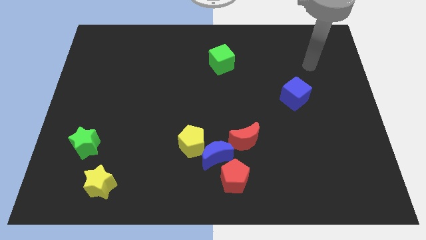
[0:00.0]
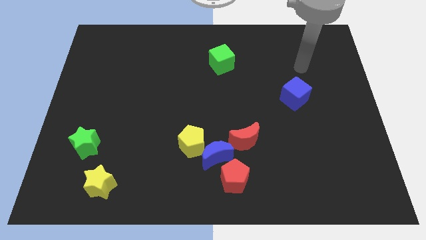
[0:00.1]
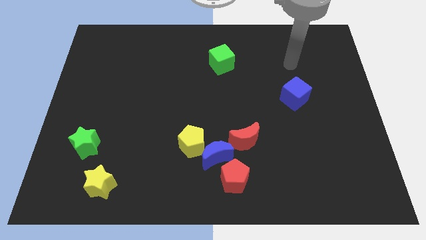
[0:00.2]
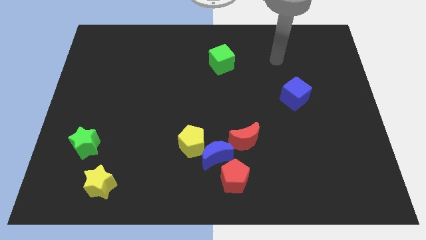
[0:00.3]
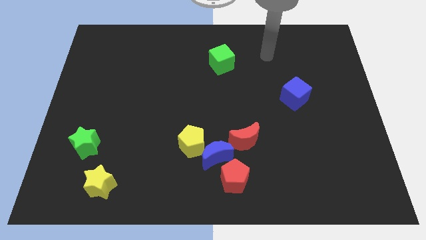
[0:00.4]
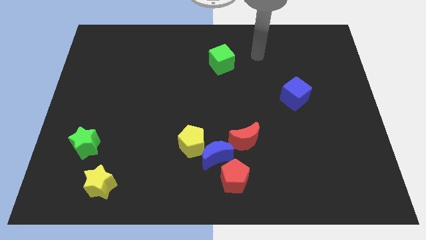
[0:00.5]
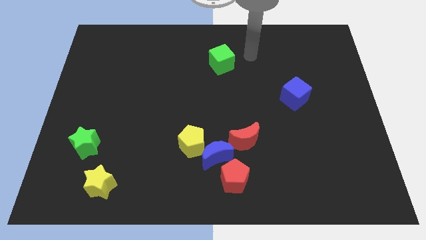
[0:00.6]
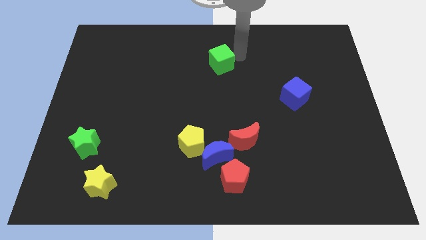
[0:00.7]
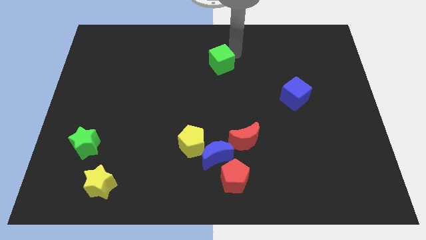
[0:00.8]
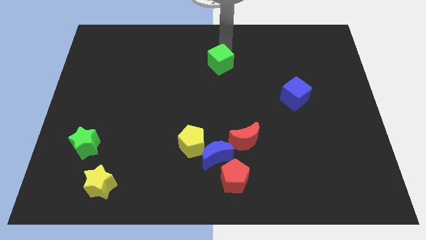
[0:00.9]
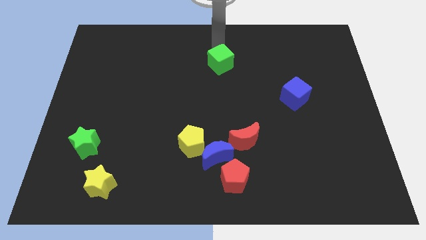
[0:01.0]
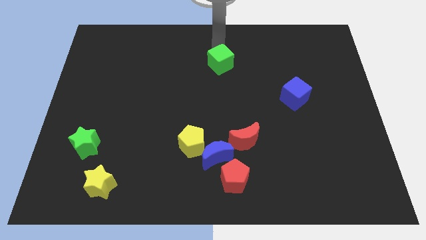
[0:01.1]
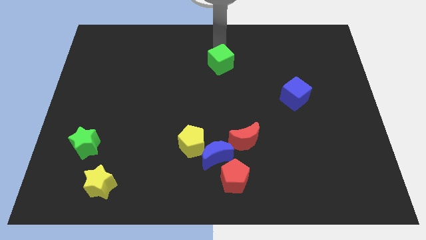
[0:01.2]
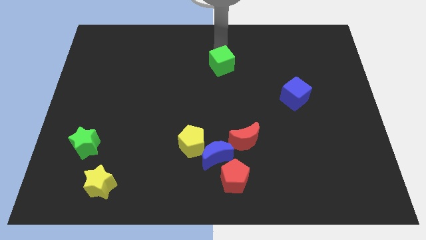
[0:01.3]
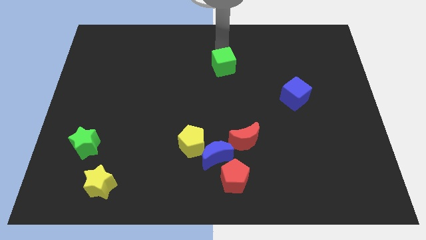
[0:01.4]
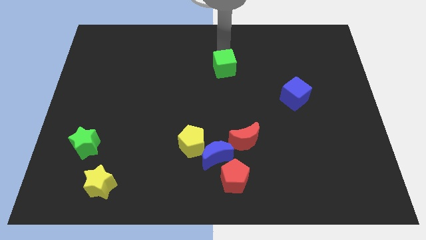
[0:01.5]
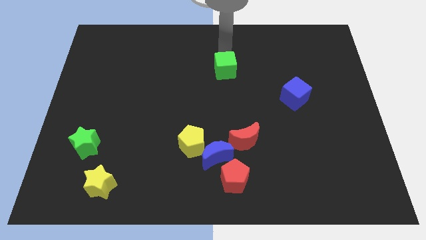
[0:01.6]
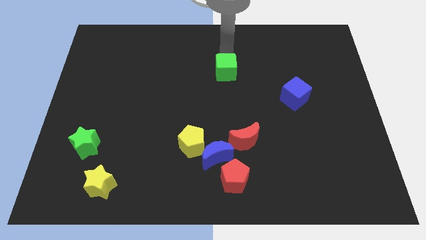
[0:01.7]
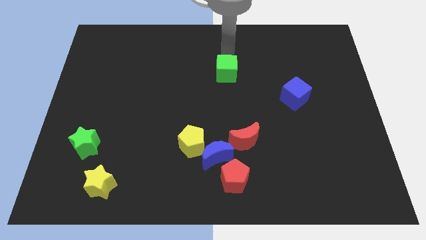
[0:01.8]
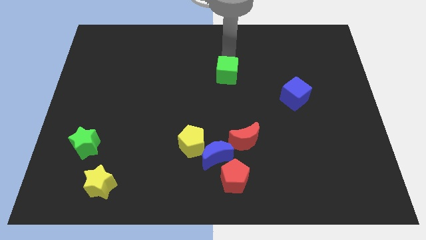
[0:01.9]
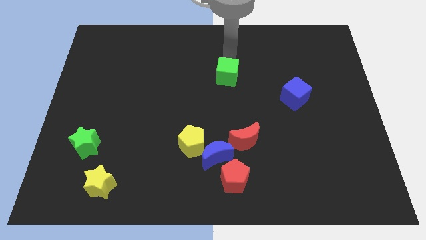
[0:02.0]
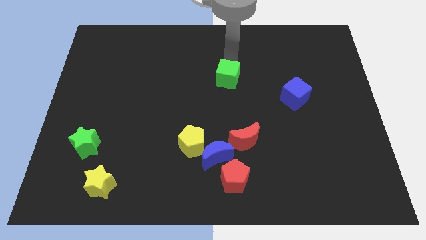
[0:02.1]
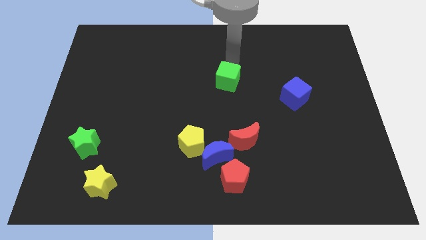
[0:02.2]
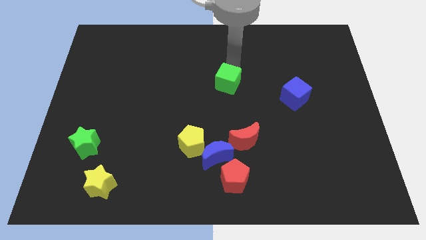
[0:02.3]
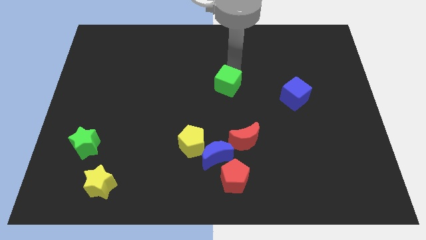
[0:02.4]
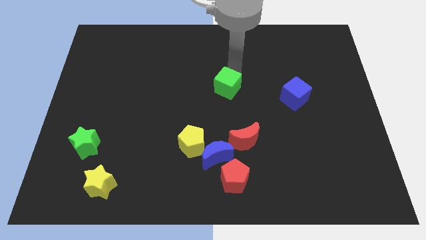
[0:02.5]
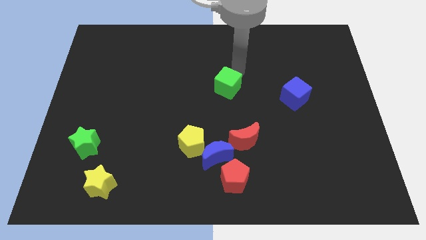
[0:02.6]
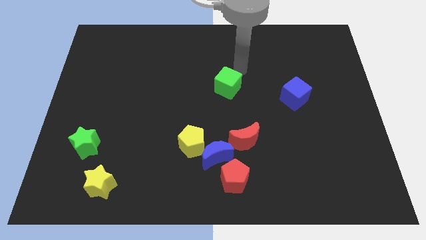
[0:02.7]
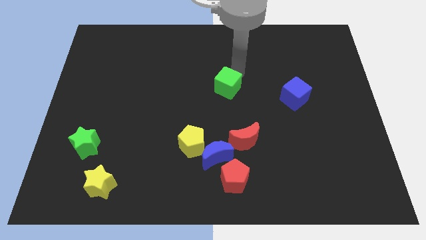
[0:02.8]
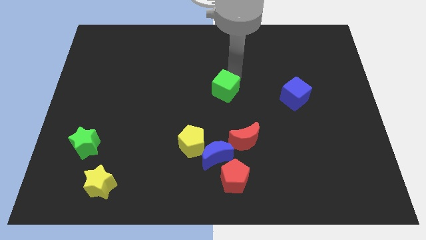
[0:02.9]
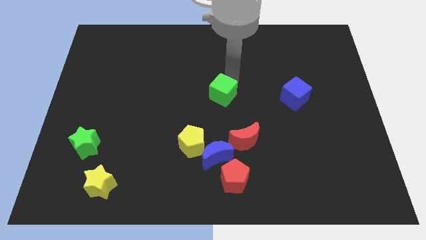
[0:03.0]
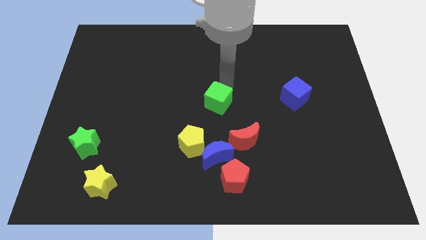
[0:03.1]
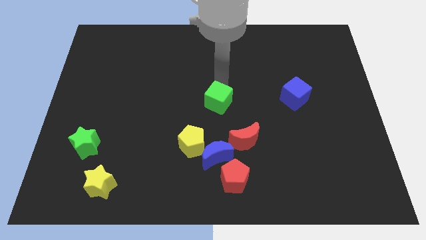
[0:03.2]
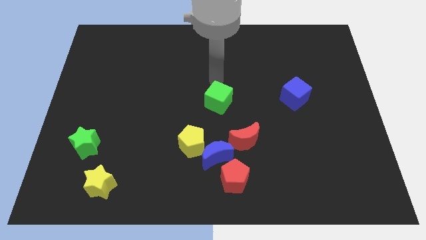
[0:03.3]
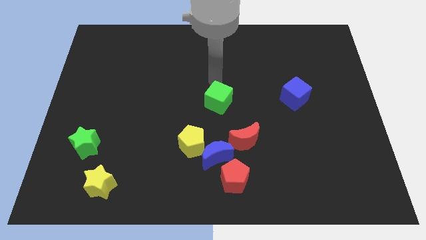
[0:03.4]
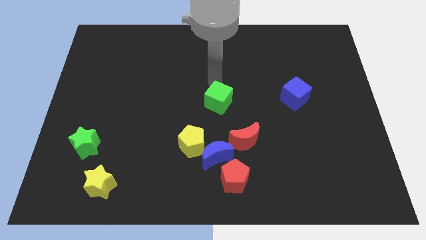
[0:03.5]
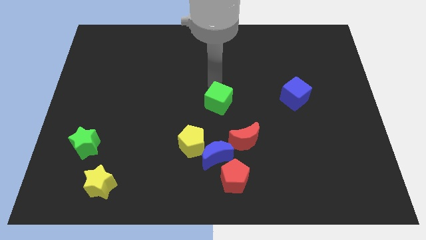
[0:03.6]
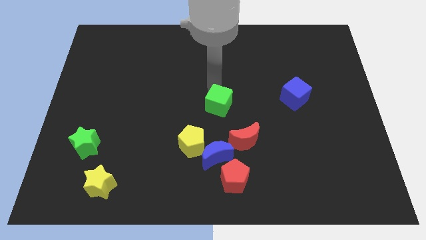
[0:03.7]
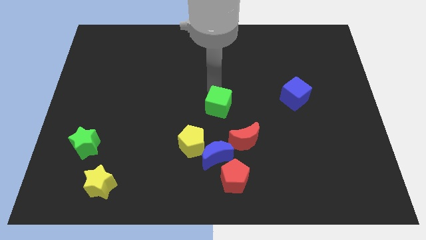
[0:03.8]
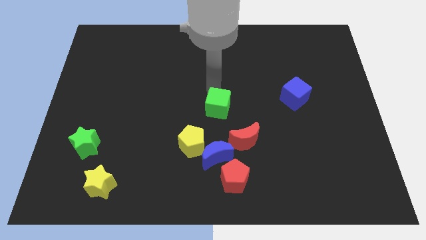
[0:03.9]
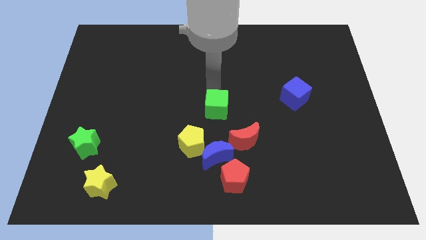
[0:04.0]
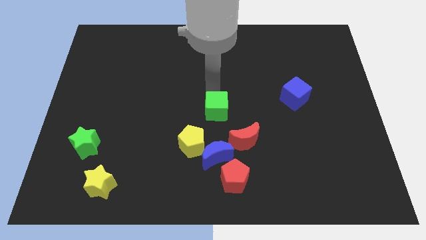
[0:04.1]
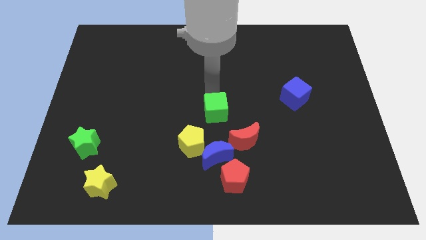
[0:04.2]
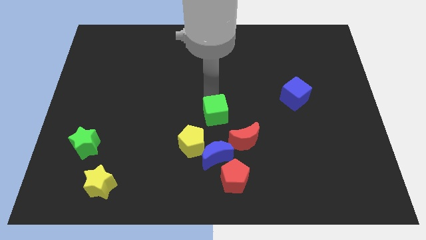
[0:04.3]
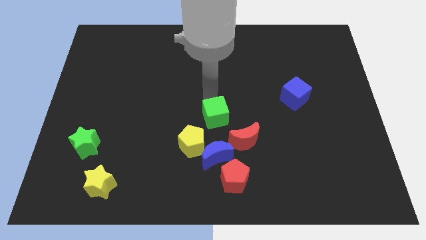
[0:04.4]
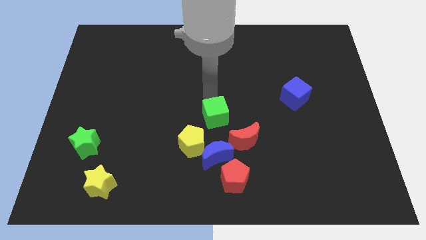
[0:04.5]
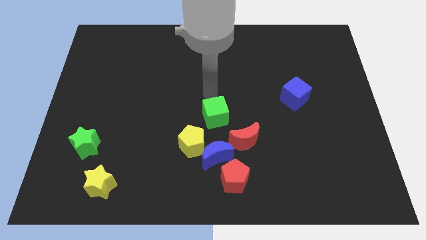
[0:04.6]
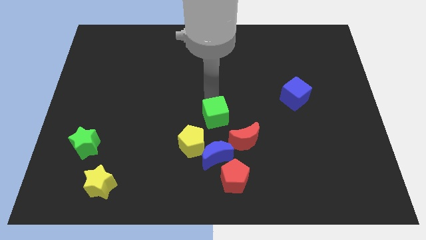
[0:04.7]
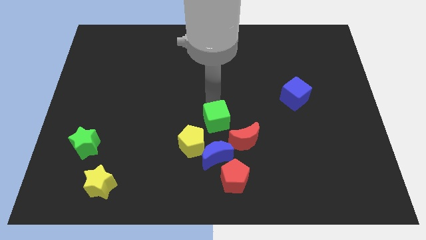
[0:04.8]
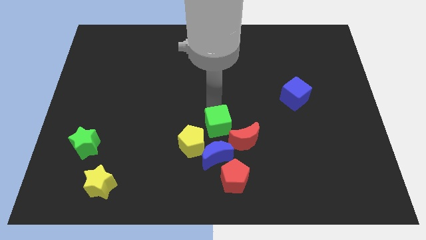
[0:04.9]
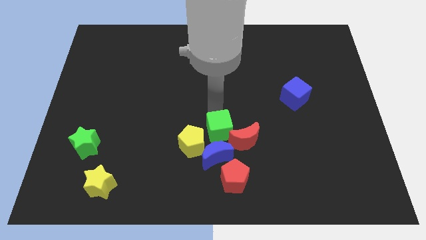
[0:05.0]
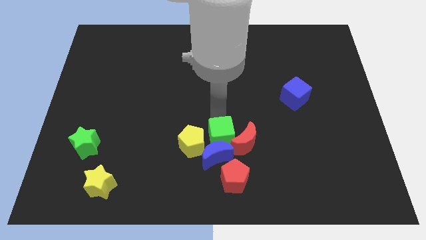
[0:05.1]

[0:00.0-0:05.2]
slide the green cube to the blue moon

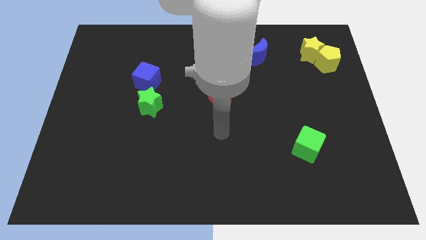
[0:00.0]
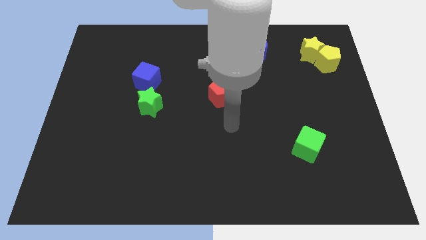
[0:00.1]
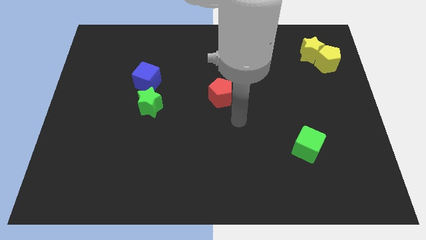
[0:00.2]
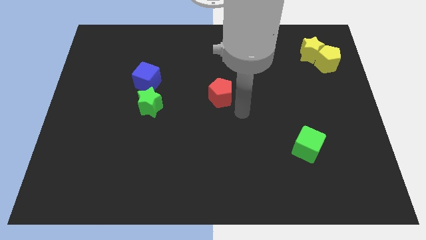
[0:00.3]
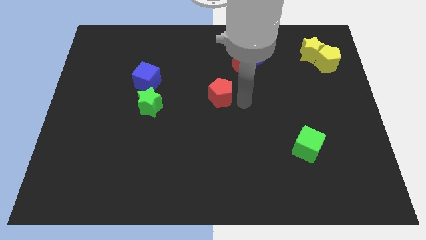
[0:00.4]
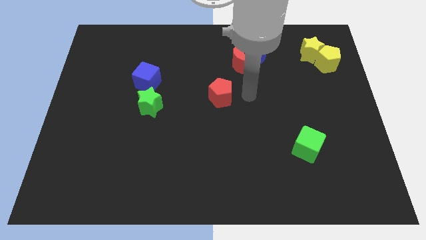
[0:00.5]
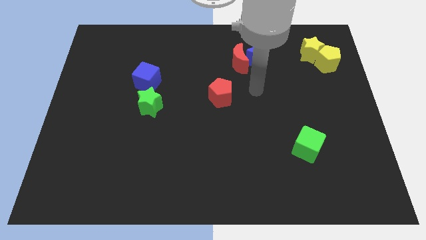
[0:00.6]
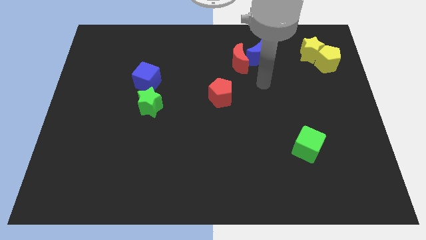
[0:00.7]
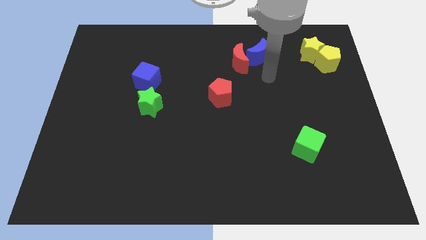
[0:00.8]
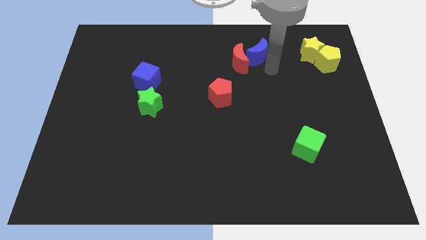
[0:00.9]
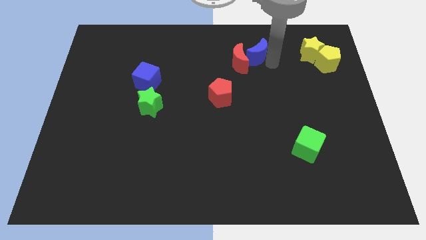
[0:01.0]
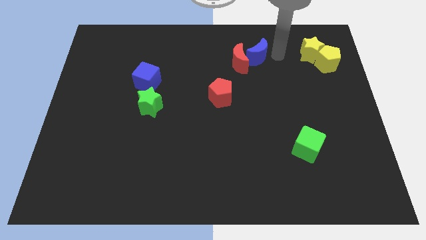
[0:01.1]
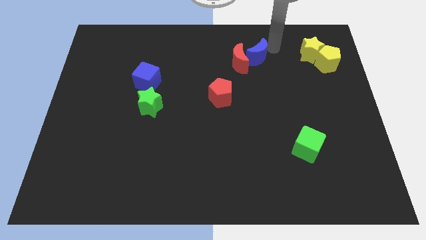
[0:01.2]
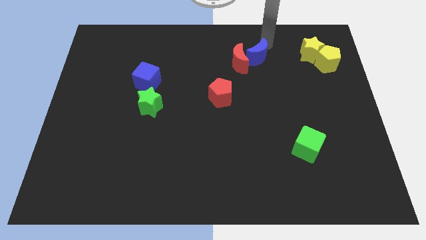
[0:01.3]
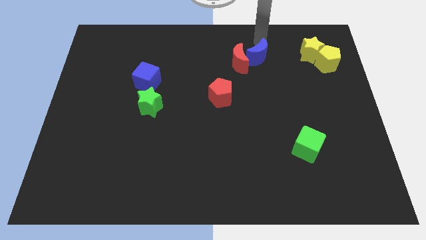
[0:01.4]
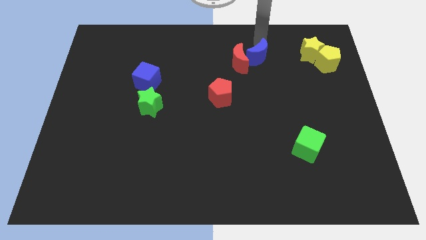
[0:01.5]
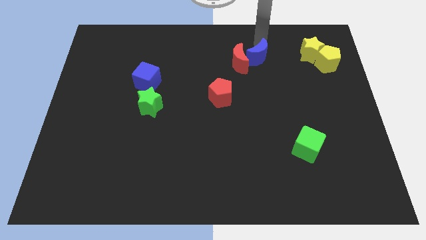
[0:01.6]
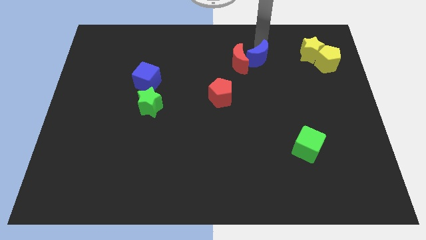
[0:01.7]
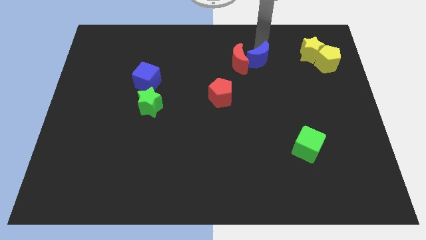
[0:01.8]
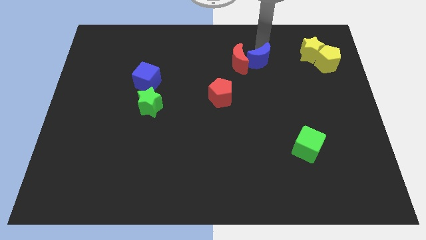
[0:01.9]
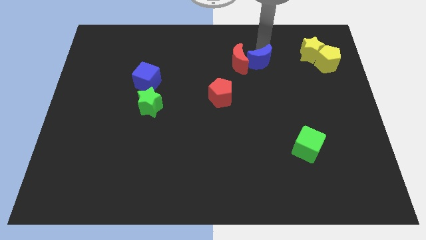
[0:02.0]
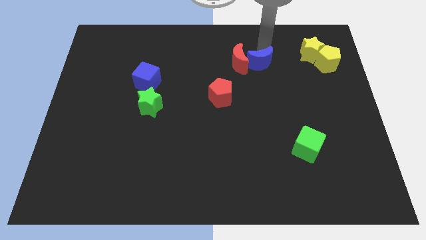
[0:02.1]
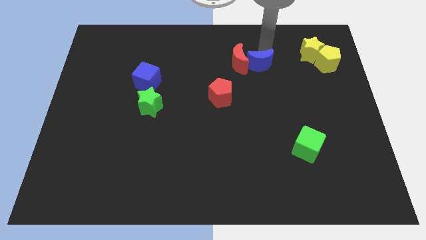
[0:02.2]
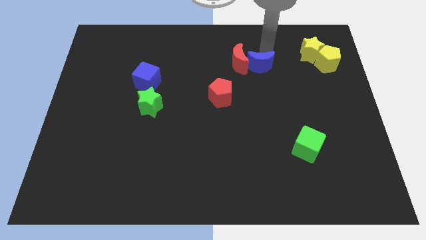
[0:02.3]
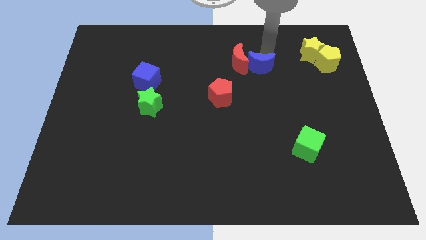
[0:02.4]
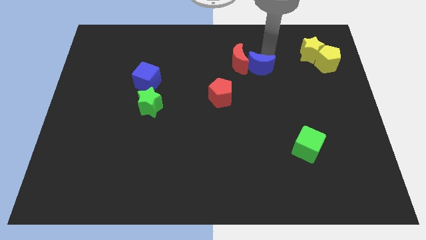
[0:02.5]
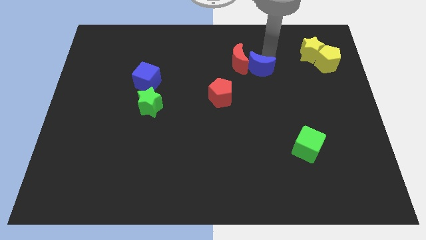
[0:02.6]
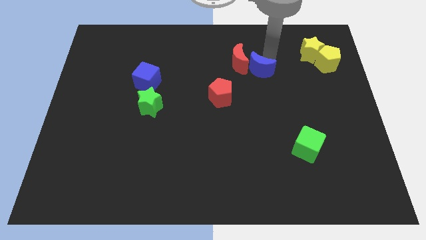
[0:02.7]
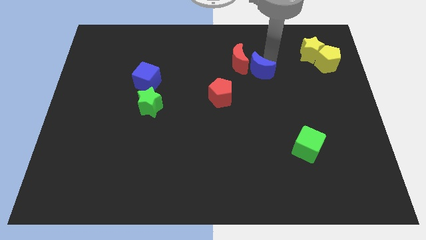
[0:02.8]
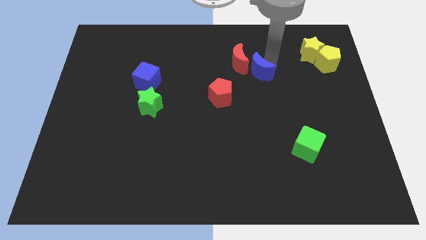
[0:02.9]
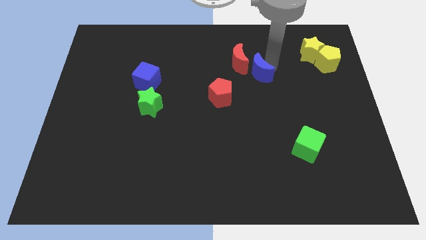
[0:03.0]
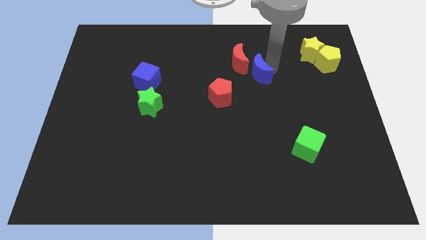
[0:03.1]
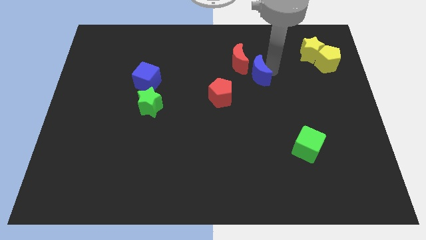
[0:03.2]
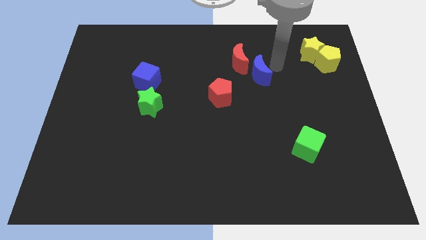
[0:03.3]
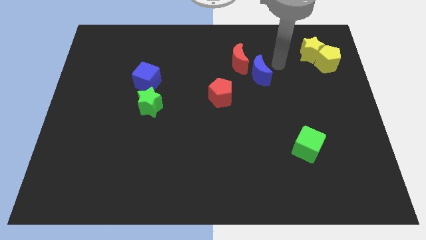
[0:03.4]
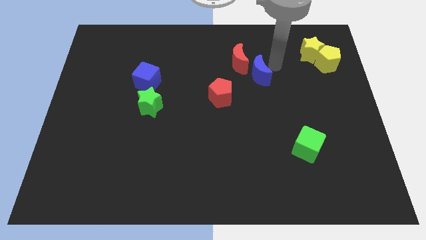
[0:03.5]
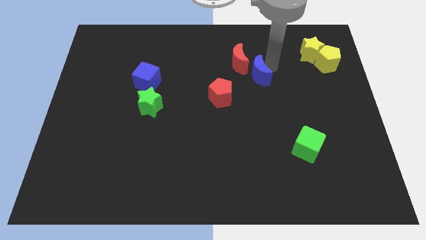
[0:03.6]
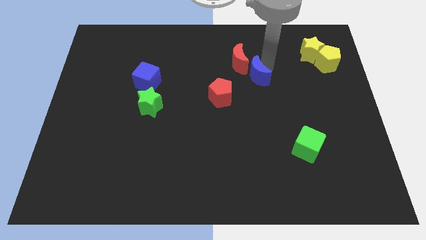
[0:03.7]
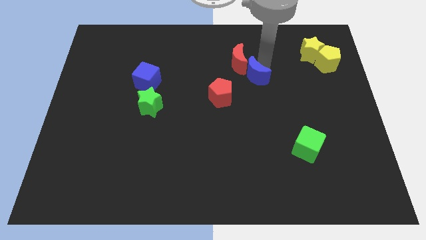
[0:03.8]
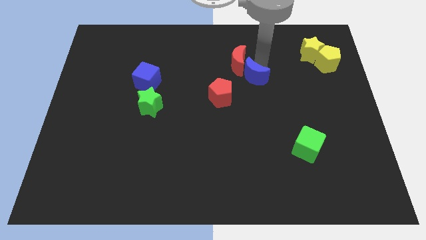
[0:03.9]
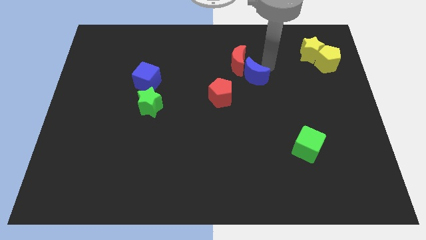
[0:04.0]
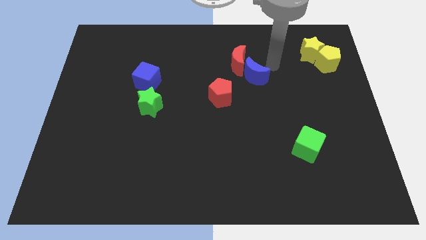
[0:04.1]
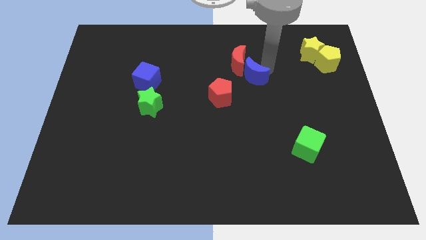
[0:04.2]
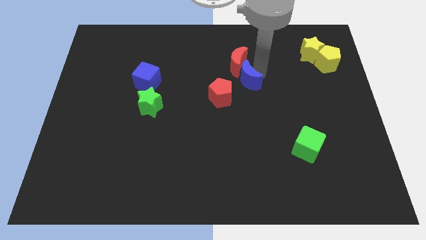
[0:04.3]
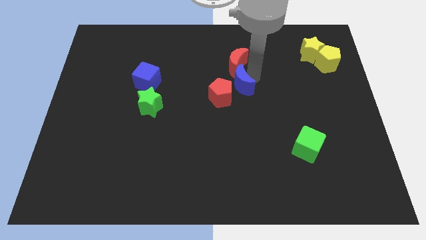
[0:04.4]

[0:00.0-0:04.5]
move the blue moon next to the red pentagon
